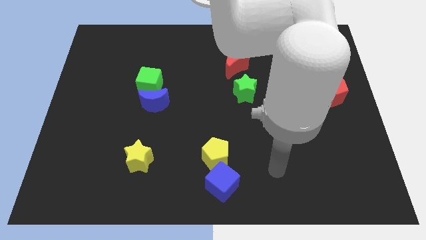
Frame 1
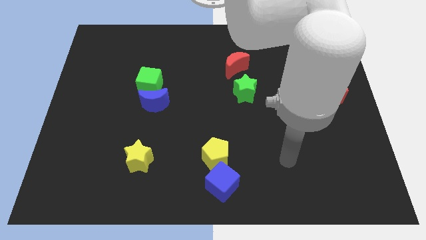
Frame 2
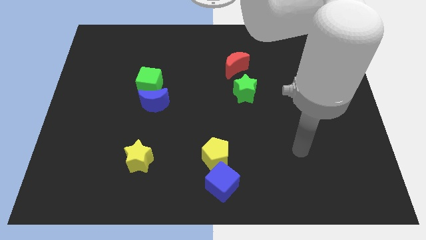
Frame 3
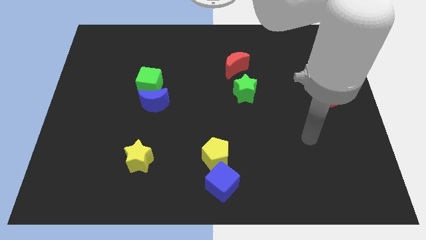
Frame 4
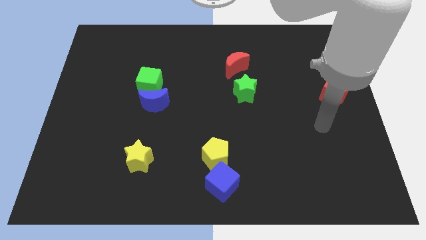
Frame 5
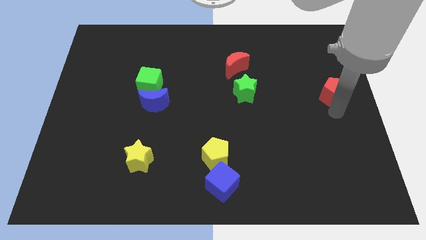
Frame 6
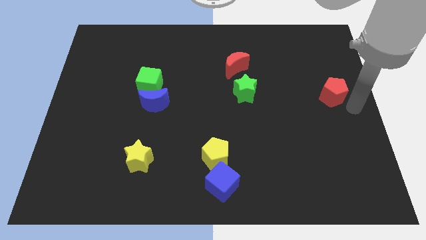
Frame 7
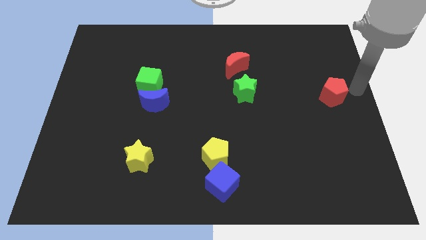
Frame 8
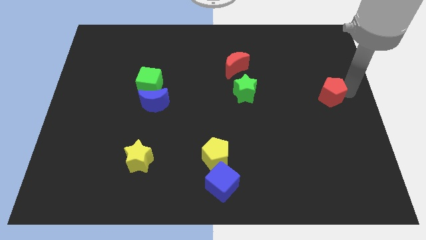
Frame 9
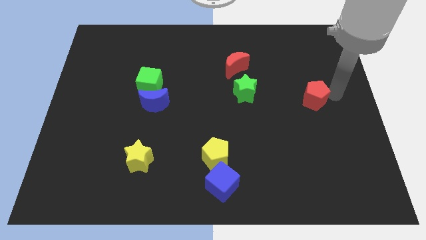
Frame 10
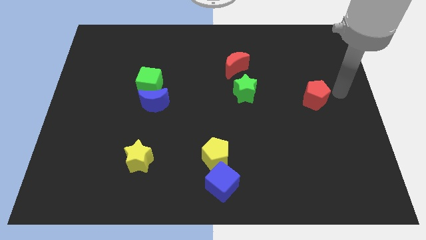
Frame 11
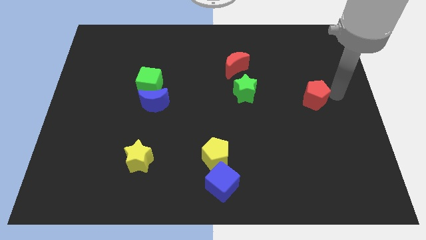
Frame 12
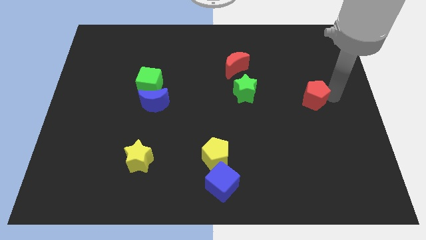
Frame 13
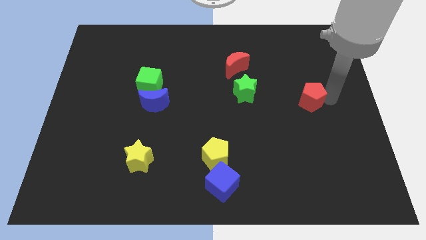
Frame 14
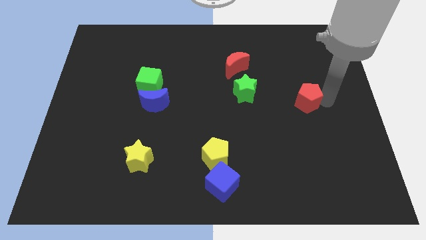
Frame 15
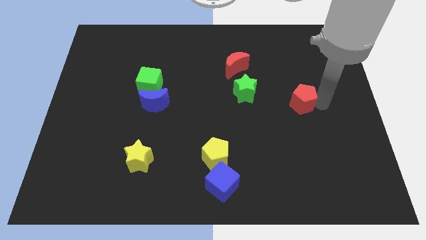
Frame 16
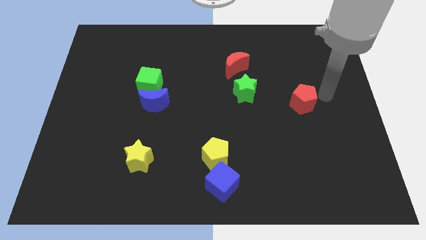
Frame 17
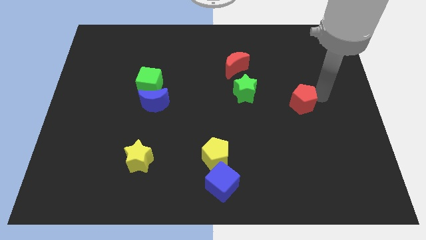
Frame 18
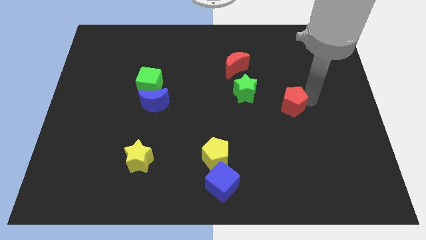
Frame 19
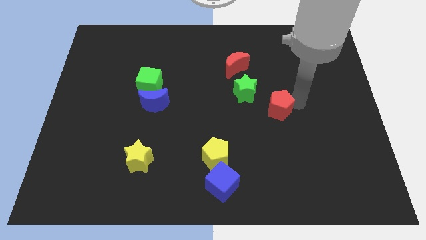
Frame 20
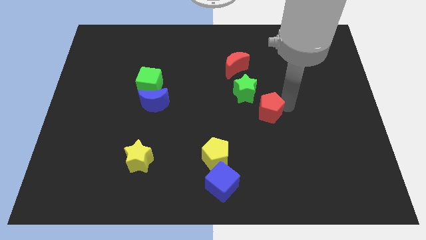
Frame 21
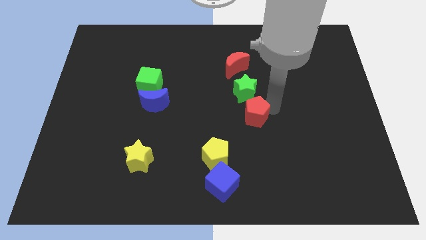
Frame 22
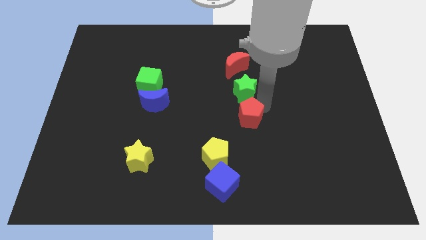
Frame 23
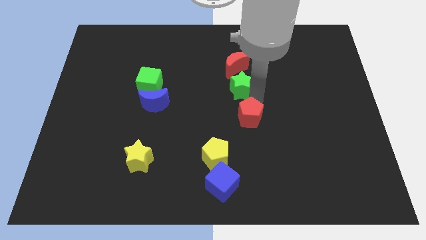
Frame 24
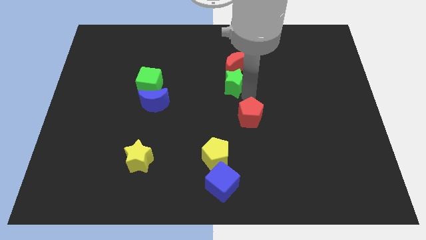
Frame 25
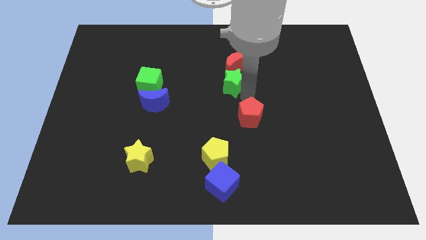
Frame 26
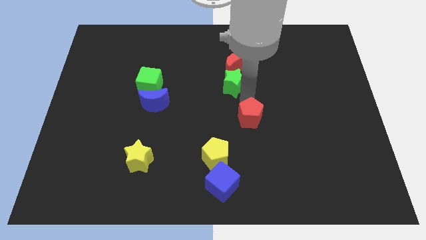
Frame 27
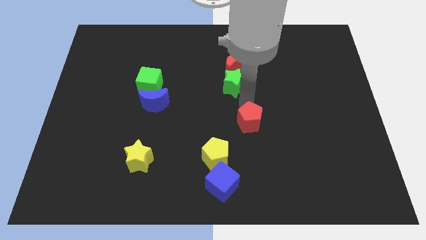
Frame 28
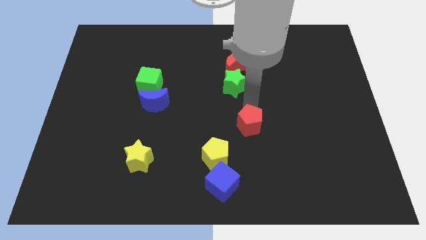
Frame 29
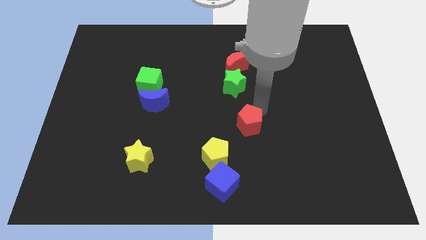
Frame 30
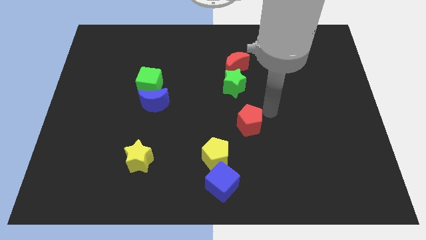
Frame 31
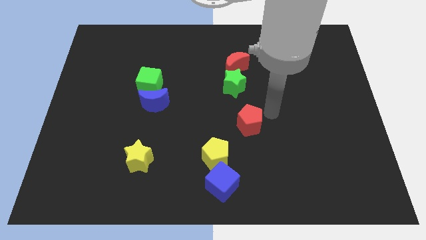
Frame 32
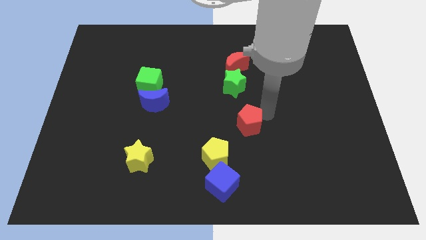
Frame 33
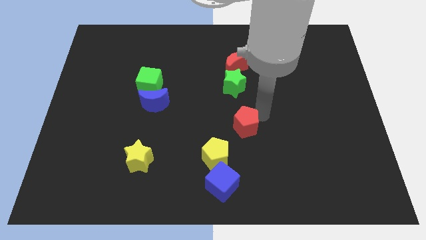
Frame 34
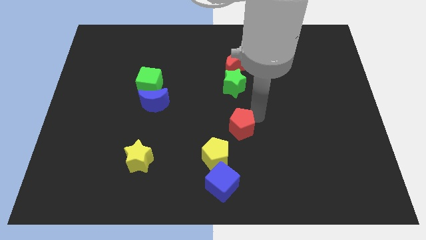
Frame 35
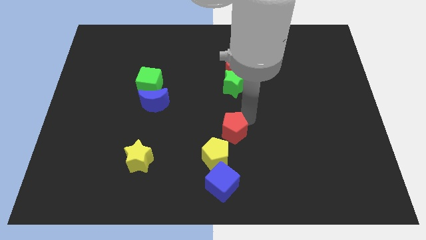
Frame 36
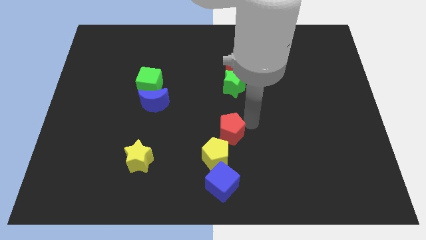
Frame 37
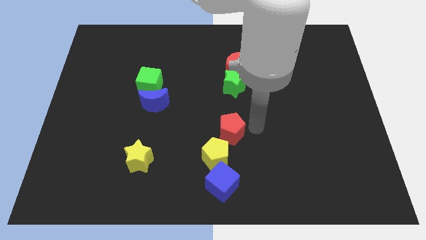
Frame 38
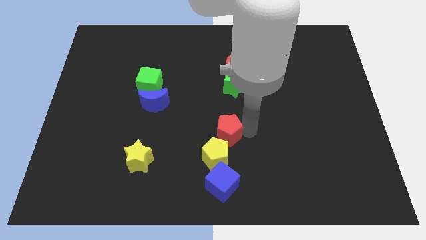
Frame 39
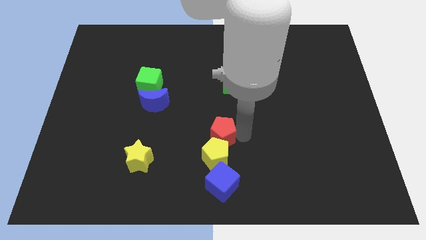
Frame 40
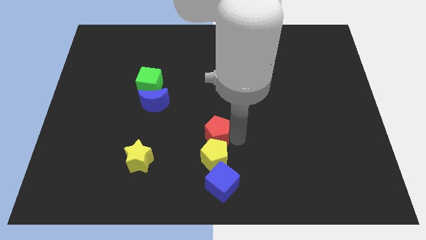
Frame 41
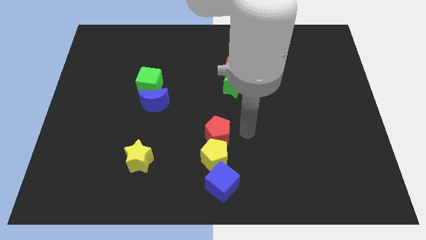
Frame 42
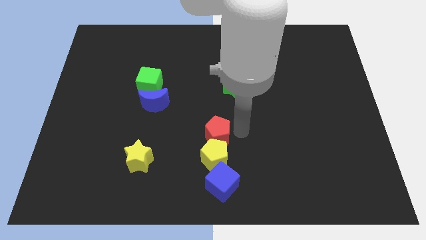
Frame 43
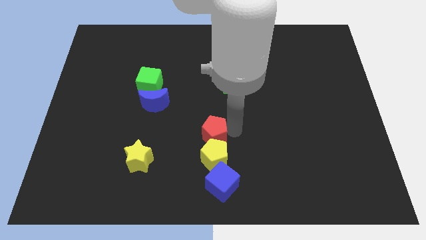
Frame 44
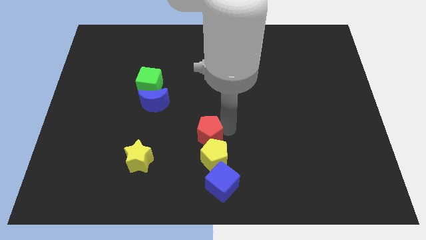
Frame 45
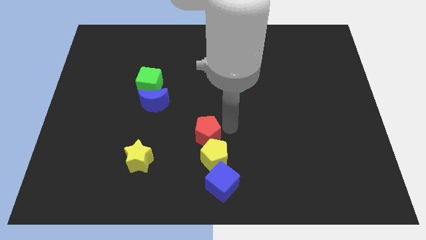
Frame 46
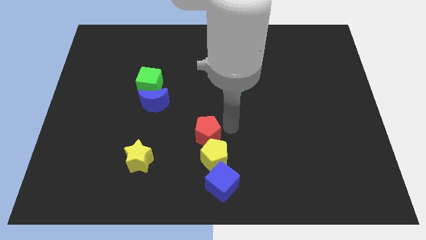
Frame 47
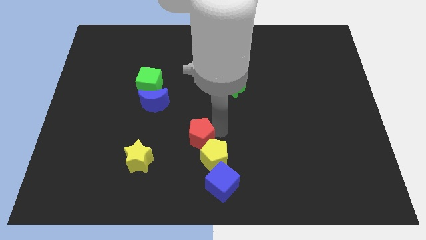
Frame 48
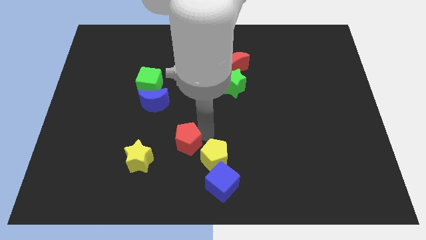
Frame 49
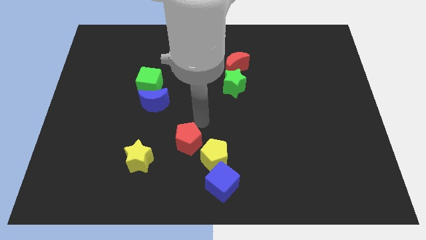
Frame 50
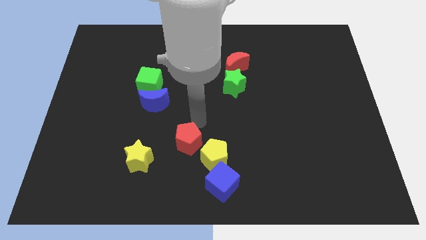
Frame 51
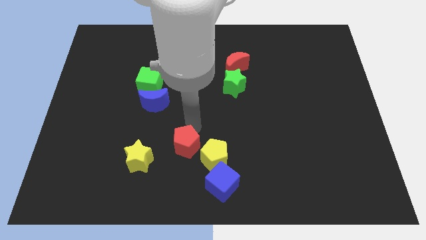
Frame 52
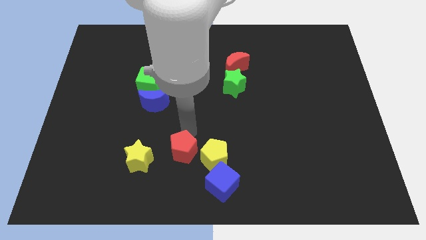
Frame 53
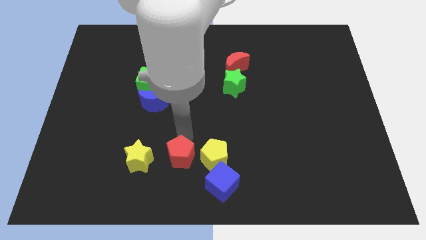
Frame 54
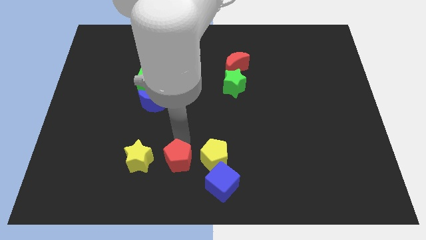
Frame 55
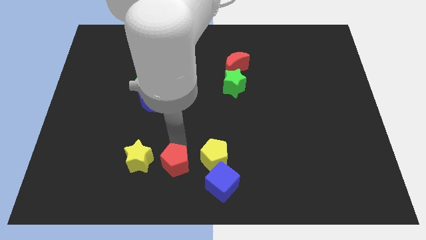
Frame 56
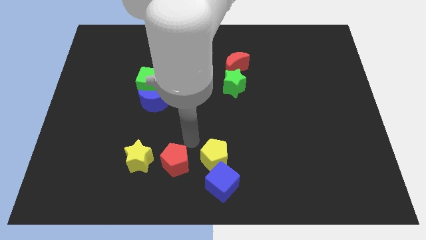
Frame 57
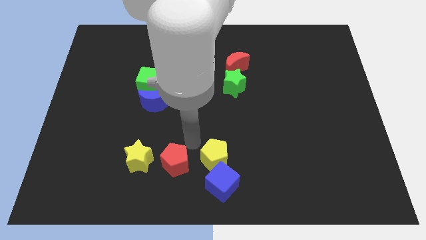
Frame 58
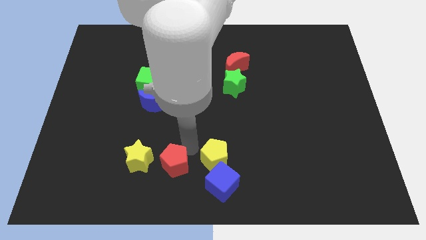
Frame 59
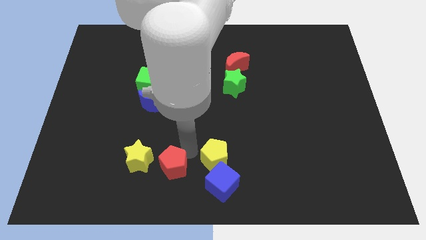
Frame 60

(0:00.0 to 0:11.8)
put the red pentagon to the bottom right side of the yellow star

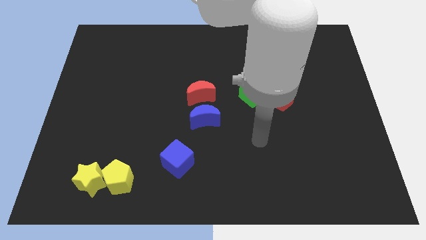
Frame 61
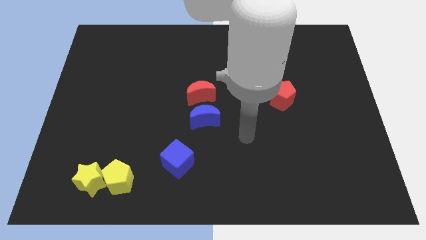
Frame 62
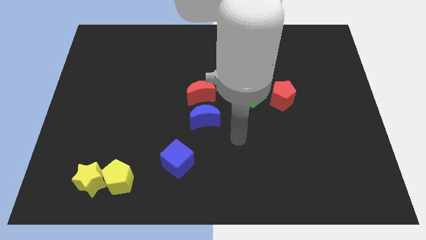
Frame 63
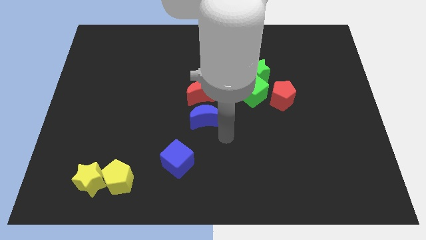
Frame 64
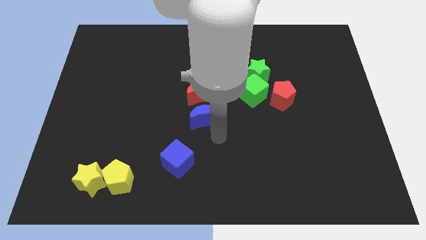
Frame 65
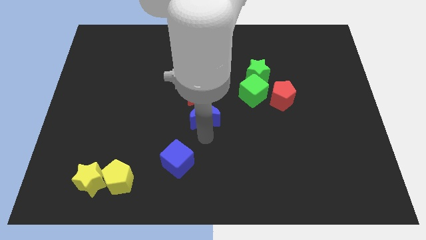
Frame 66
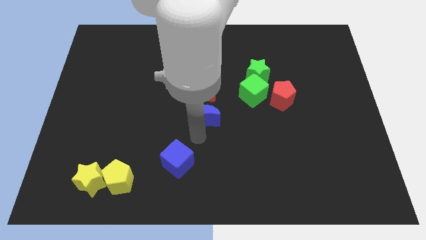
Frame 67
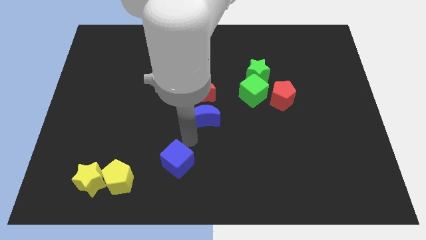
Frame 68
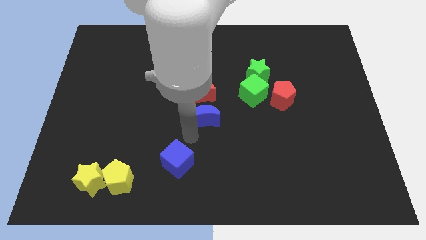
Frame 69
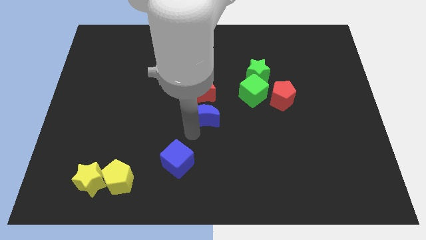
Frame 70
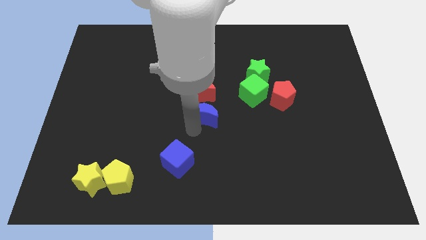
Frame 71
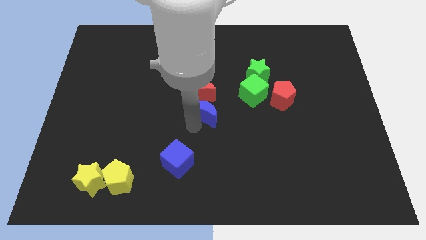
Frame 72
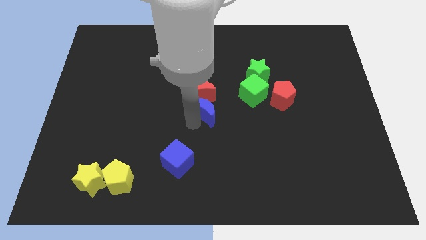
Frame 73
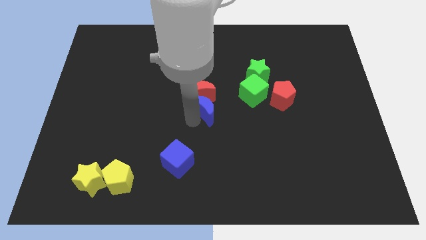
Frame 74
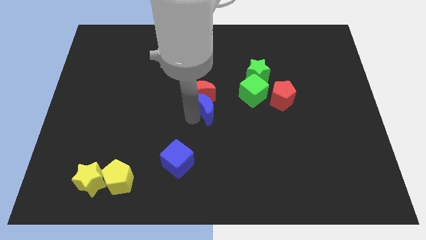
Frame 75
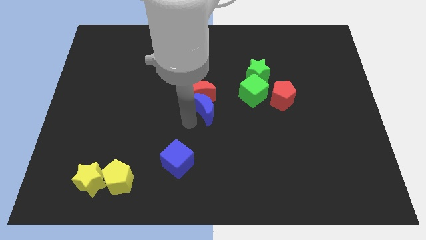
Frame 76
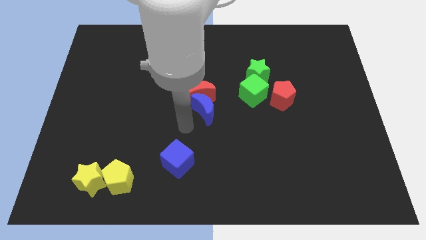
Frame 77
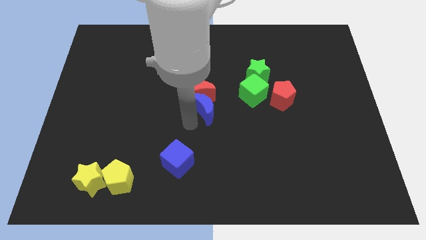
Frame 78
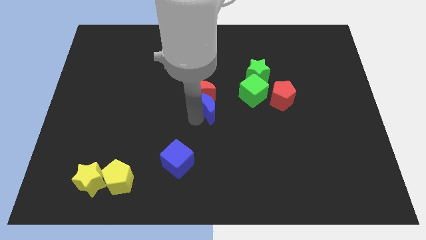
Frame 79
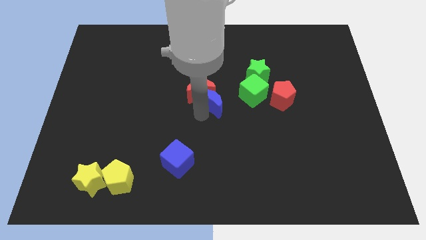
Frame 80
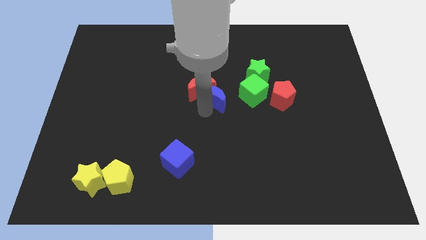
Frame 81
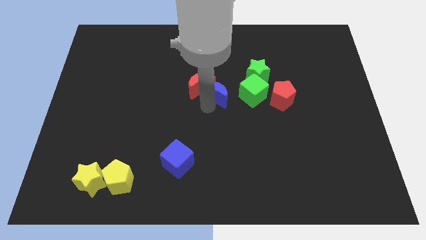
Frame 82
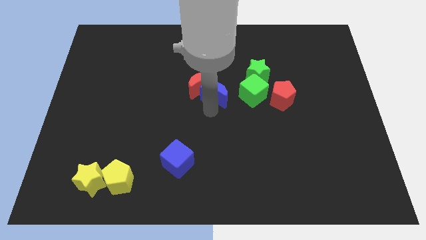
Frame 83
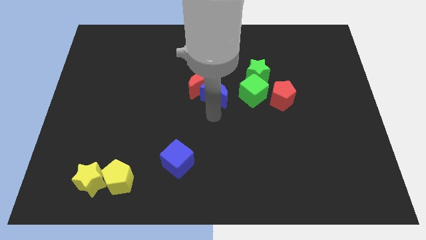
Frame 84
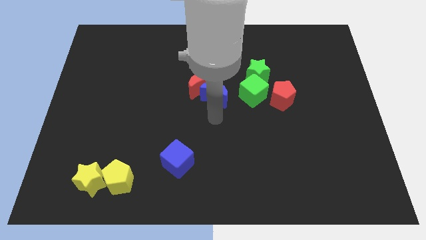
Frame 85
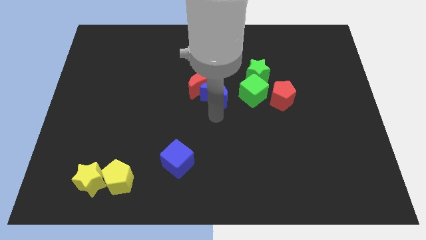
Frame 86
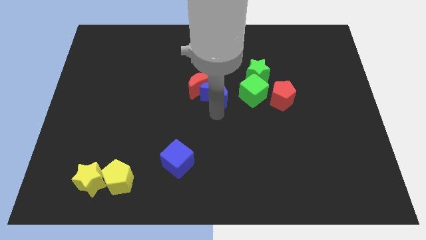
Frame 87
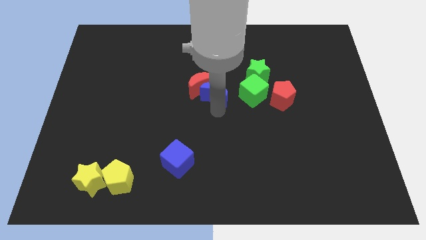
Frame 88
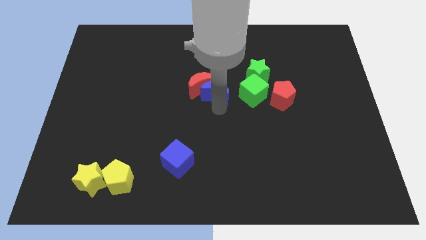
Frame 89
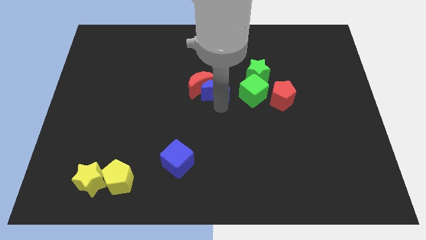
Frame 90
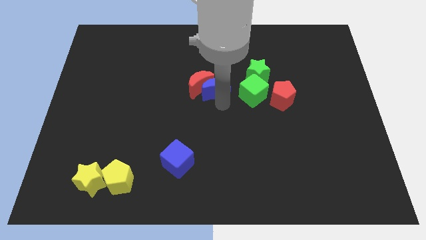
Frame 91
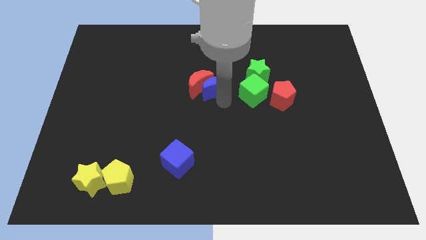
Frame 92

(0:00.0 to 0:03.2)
move the blue moon to the left side of the green star
